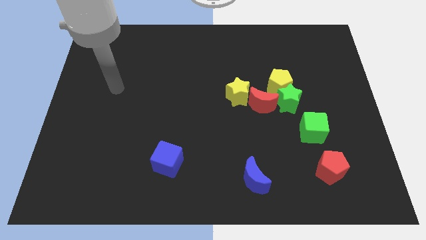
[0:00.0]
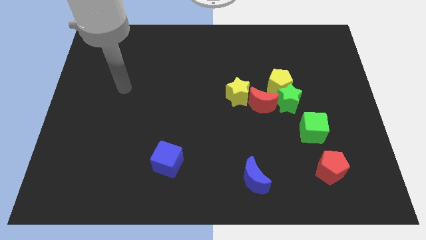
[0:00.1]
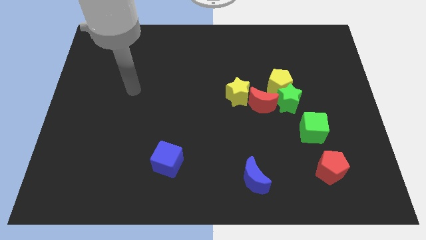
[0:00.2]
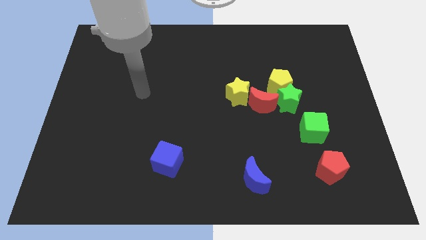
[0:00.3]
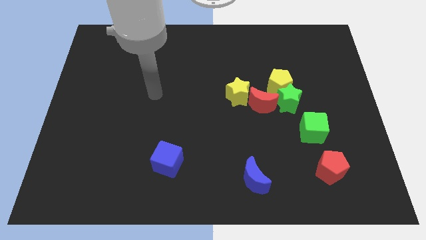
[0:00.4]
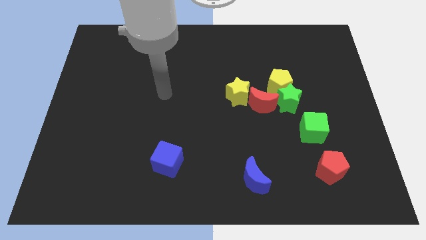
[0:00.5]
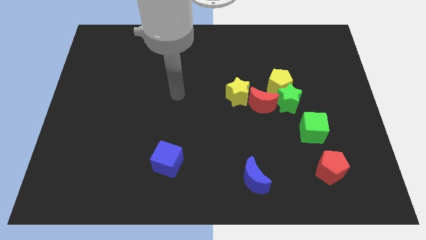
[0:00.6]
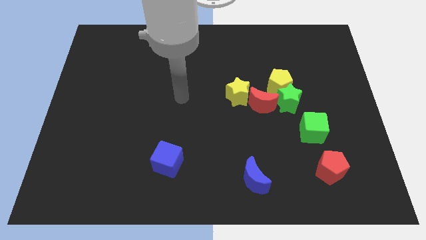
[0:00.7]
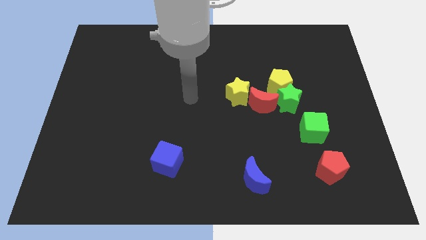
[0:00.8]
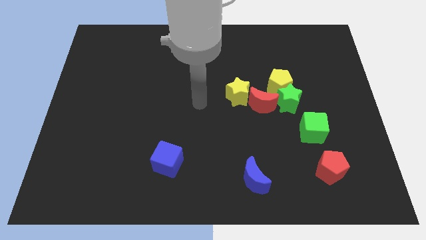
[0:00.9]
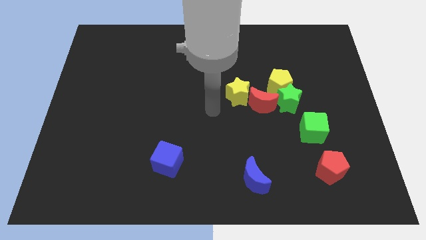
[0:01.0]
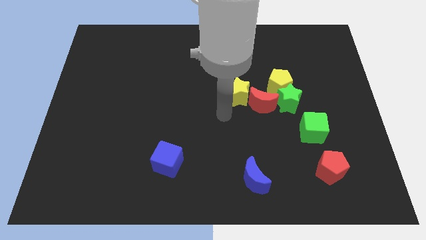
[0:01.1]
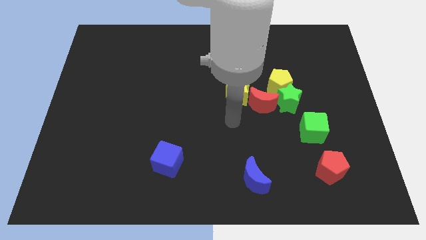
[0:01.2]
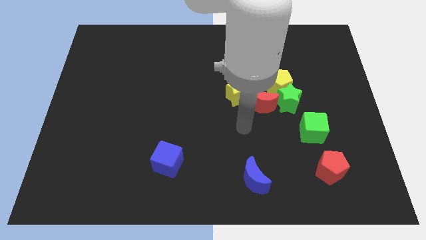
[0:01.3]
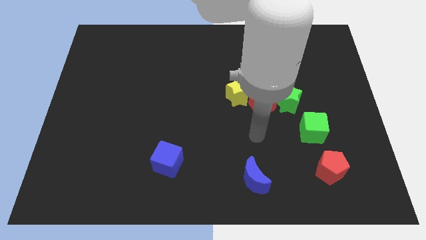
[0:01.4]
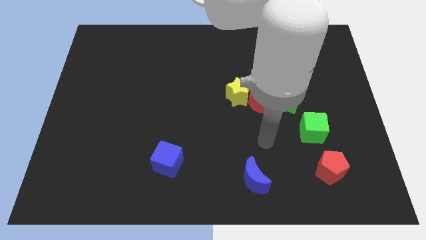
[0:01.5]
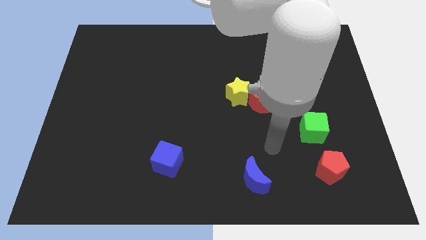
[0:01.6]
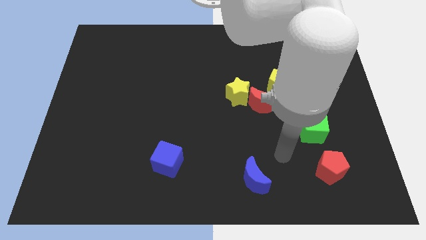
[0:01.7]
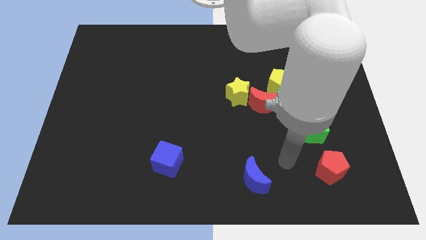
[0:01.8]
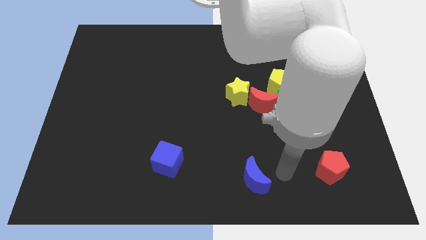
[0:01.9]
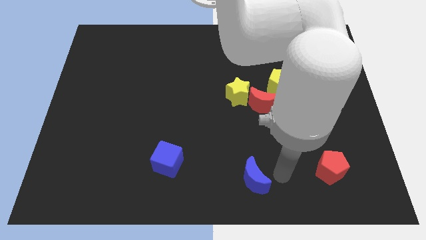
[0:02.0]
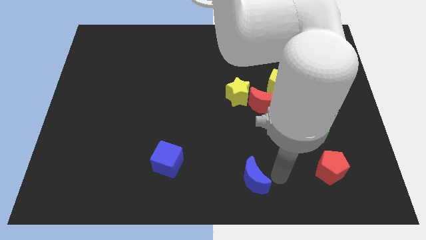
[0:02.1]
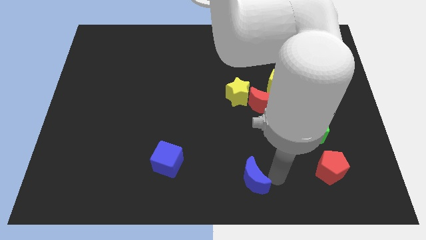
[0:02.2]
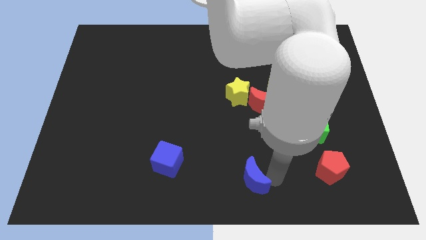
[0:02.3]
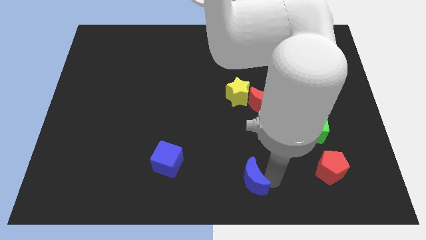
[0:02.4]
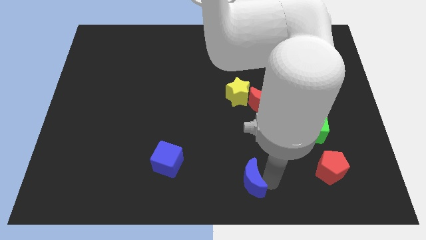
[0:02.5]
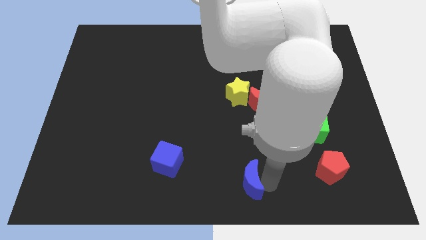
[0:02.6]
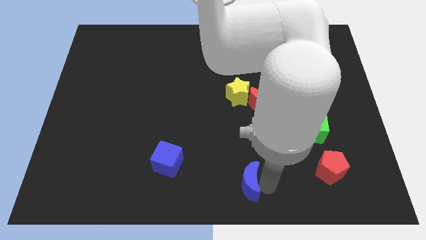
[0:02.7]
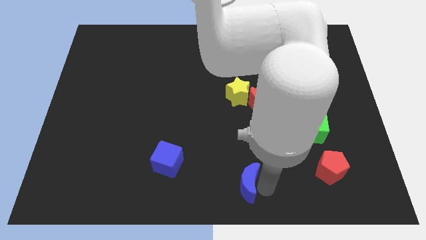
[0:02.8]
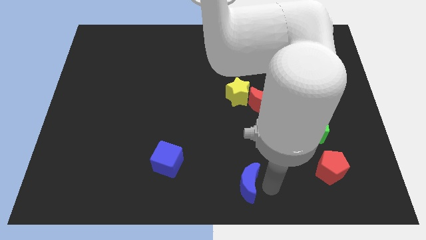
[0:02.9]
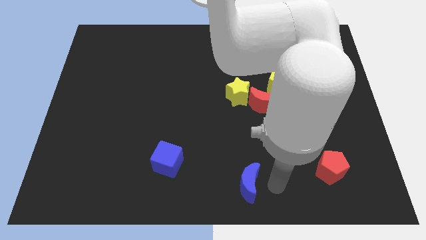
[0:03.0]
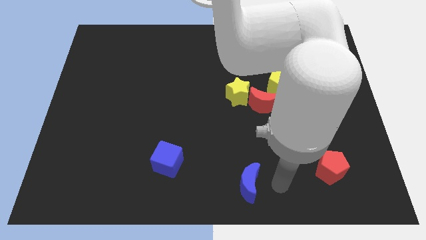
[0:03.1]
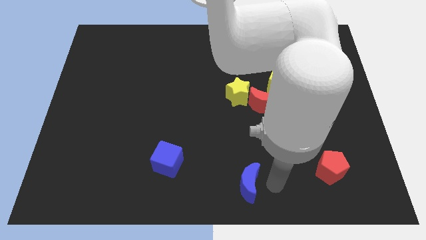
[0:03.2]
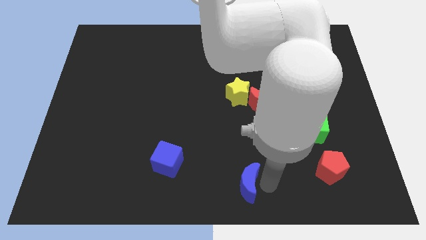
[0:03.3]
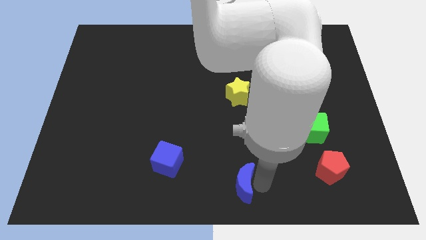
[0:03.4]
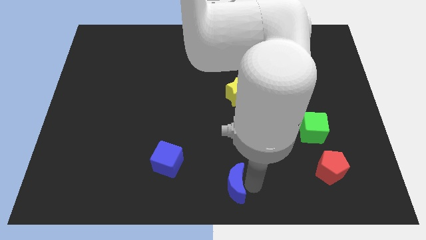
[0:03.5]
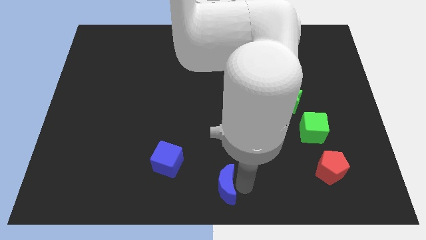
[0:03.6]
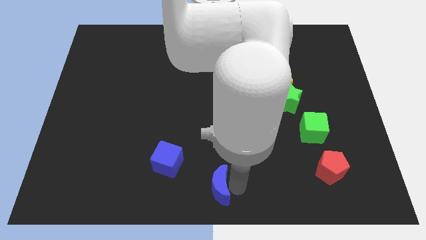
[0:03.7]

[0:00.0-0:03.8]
slide the blue moon left a little

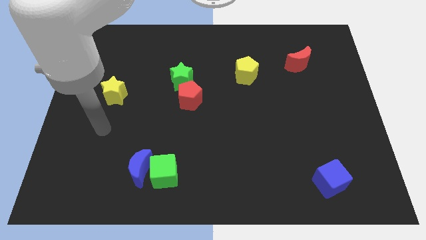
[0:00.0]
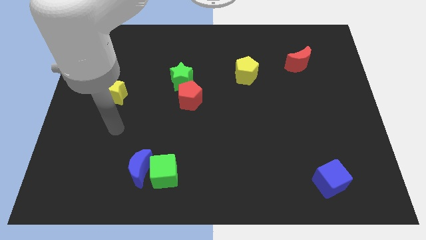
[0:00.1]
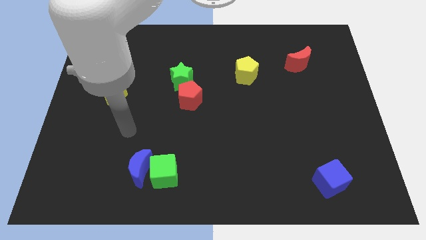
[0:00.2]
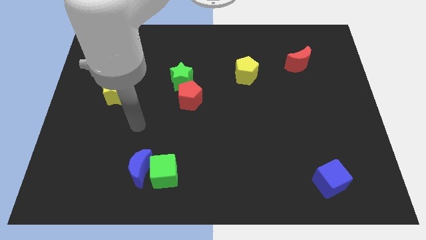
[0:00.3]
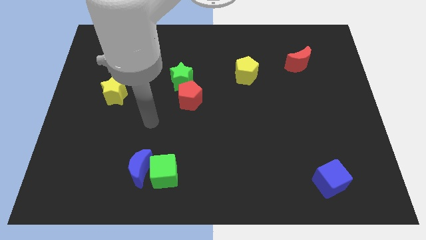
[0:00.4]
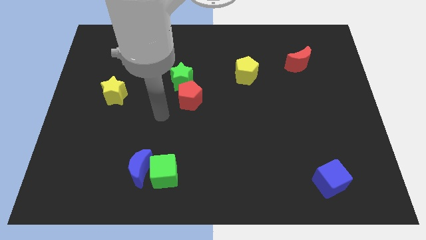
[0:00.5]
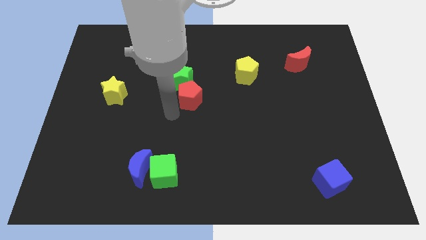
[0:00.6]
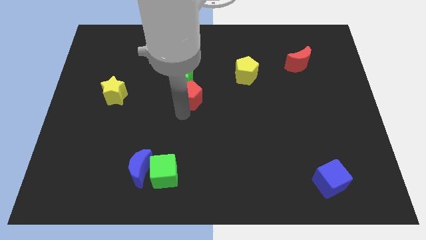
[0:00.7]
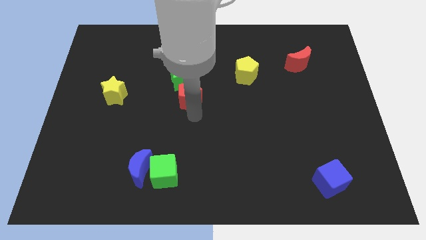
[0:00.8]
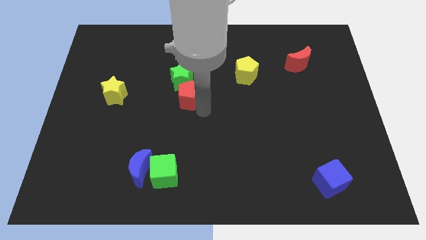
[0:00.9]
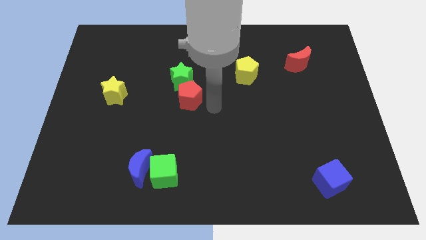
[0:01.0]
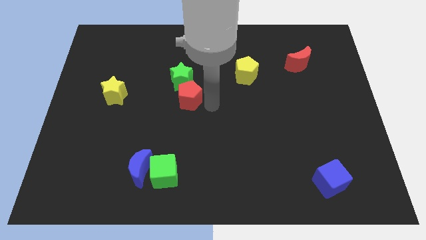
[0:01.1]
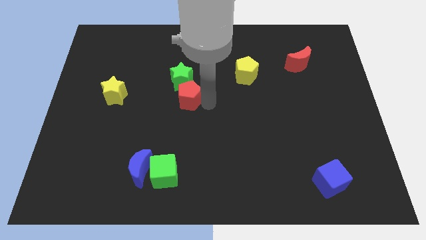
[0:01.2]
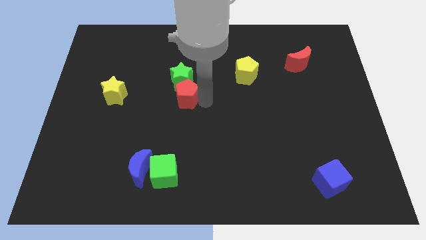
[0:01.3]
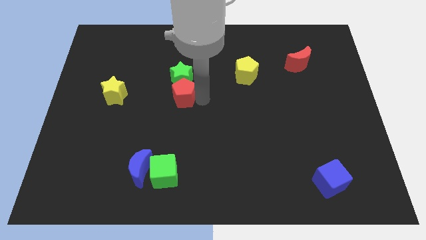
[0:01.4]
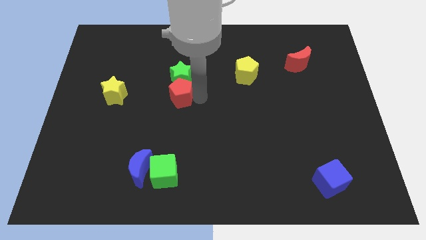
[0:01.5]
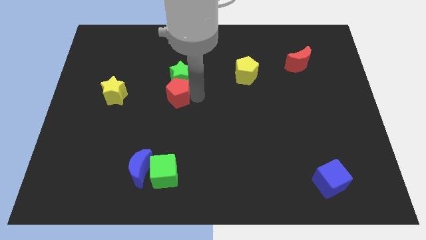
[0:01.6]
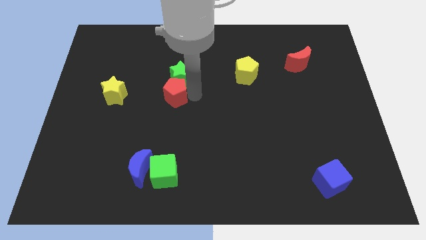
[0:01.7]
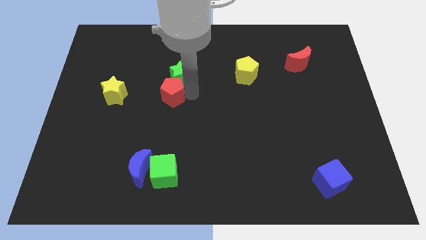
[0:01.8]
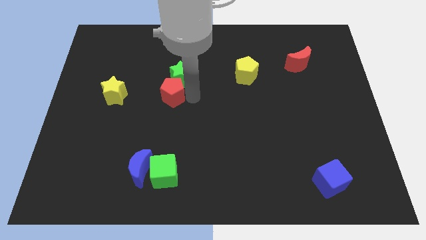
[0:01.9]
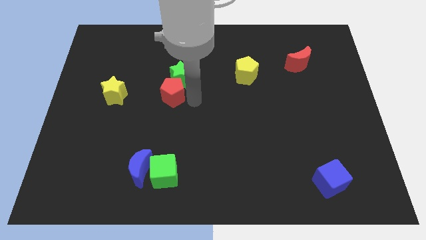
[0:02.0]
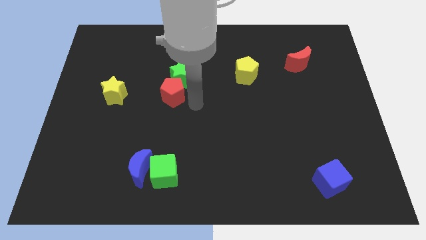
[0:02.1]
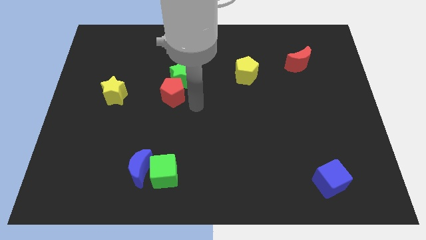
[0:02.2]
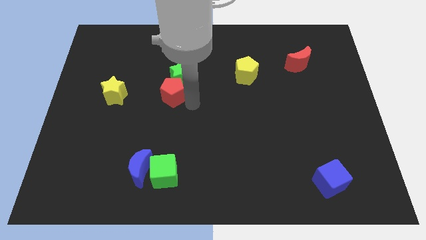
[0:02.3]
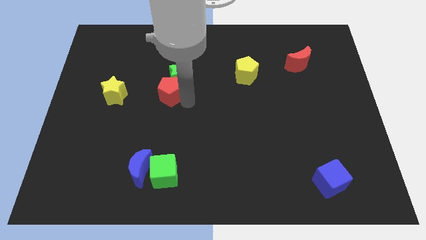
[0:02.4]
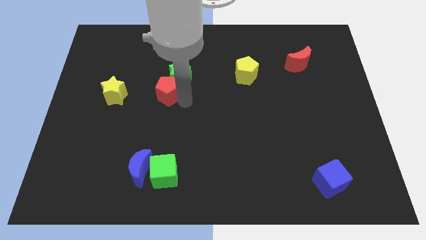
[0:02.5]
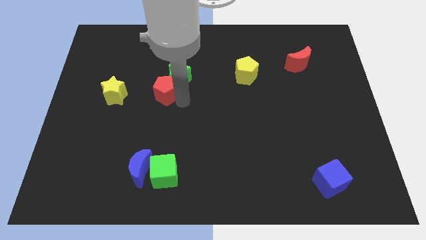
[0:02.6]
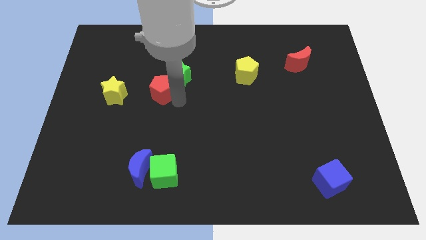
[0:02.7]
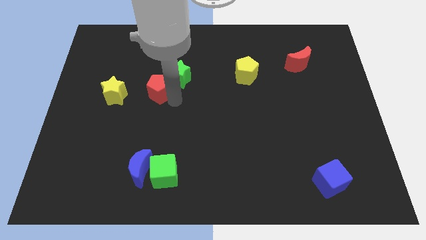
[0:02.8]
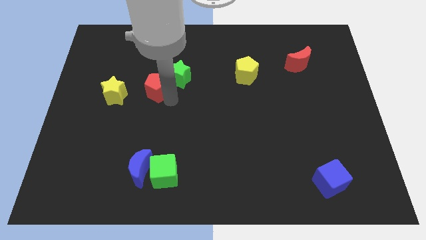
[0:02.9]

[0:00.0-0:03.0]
move the red pentagon slightly upwards and left

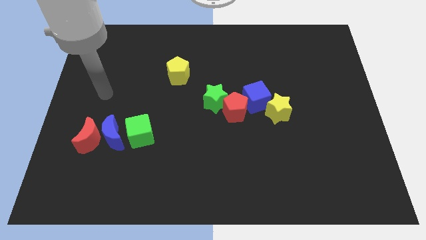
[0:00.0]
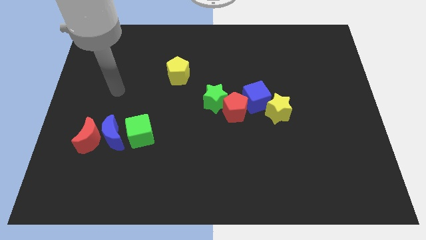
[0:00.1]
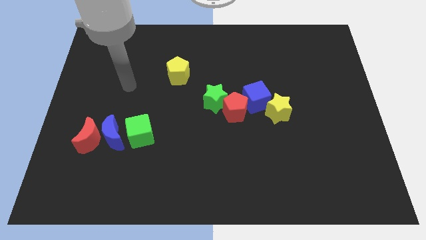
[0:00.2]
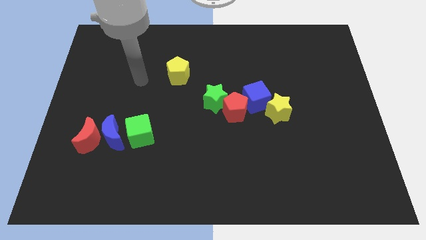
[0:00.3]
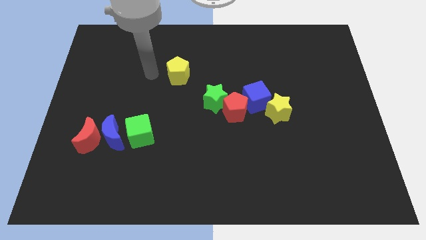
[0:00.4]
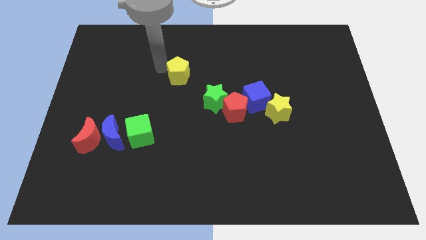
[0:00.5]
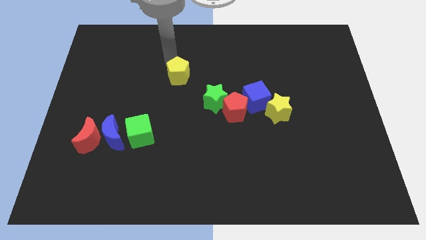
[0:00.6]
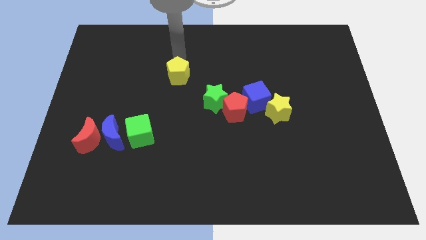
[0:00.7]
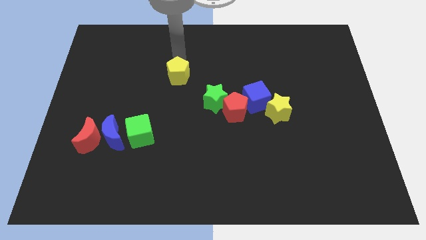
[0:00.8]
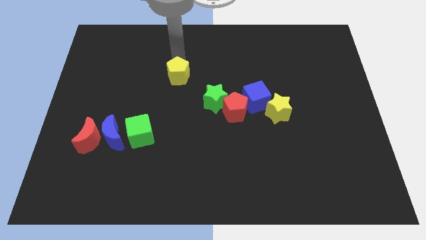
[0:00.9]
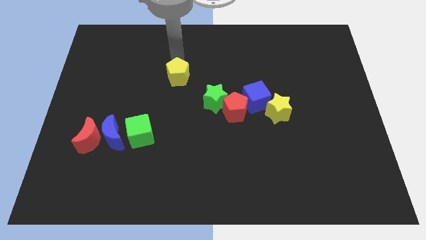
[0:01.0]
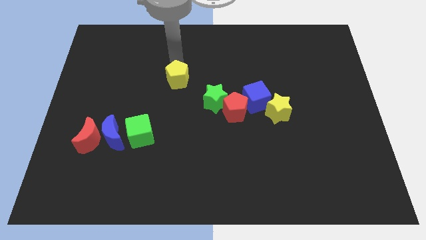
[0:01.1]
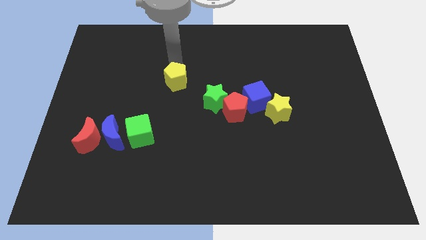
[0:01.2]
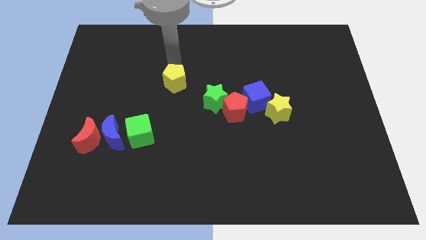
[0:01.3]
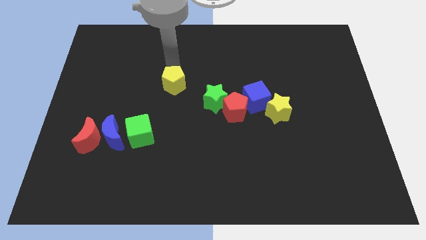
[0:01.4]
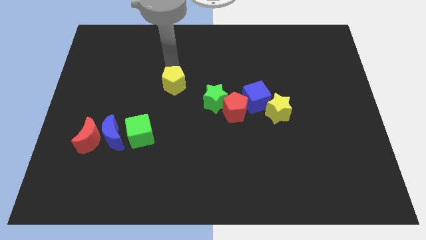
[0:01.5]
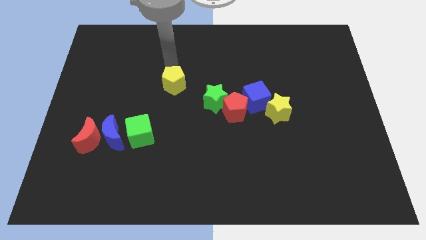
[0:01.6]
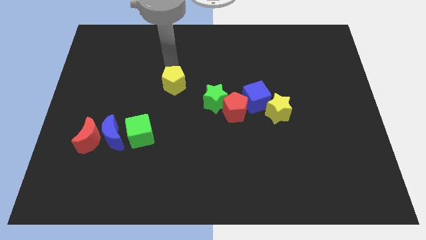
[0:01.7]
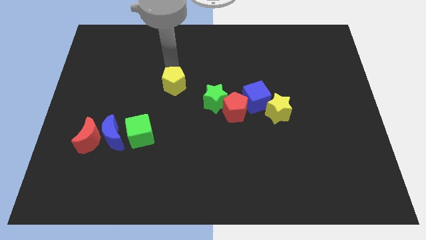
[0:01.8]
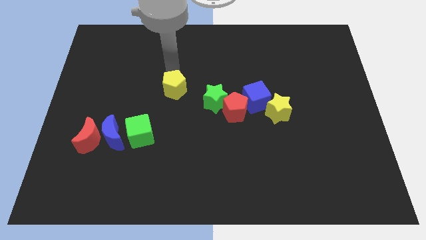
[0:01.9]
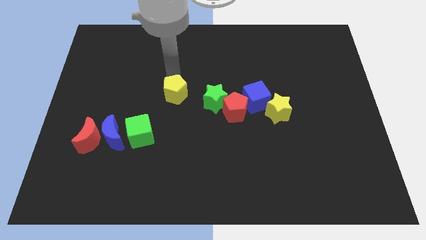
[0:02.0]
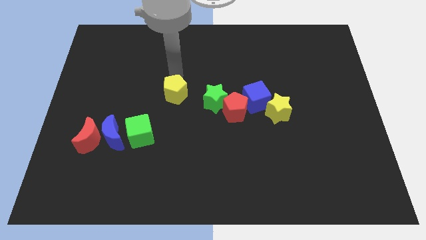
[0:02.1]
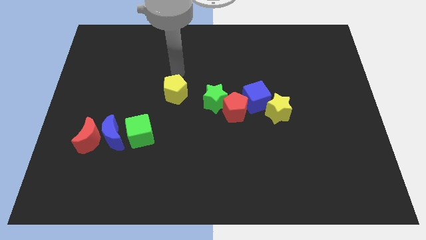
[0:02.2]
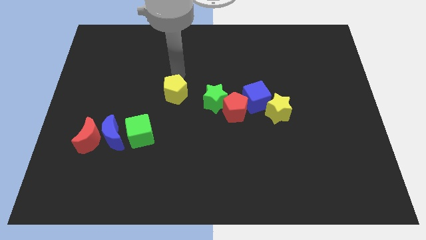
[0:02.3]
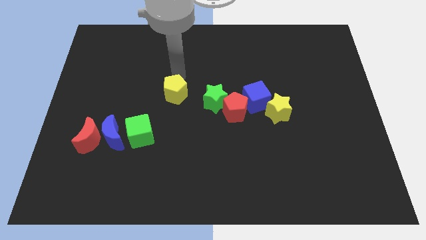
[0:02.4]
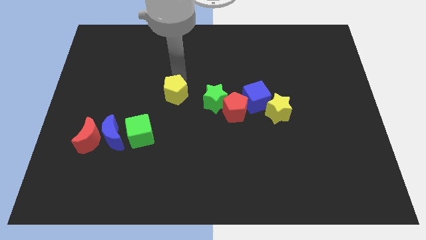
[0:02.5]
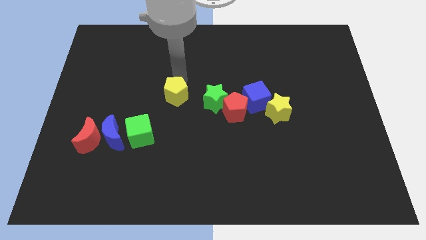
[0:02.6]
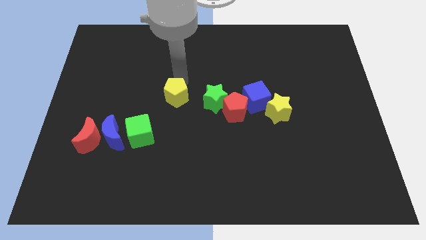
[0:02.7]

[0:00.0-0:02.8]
push the yellow pentagon a little downwards
